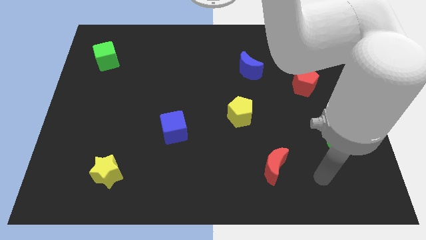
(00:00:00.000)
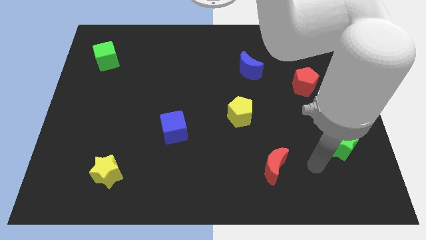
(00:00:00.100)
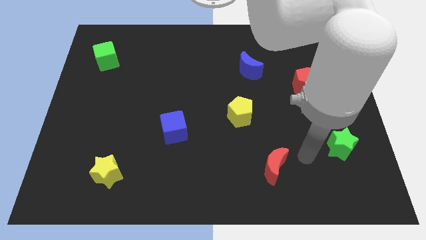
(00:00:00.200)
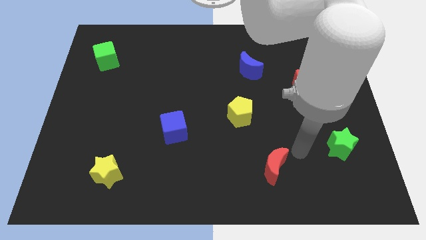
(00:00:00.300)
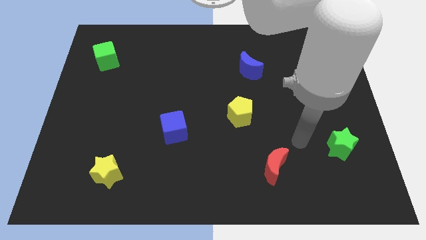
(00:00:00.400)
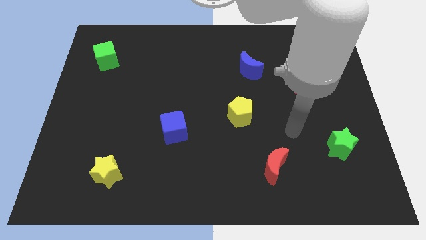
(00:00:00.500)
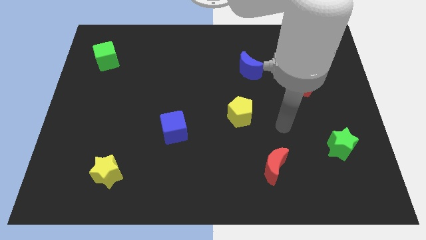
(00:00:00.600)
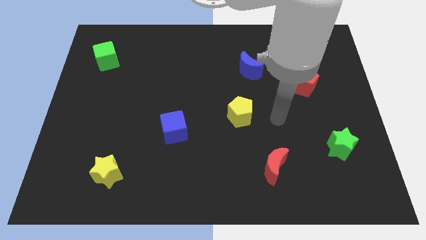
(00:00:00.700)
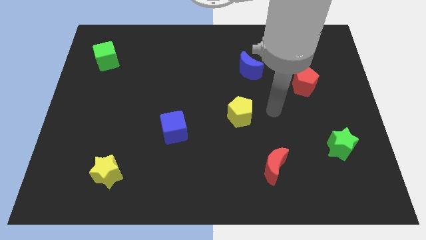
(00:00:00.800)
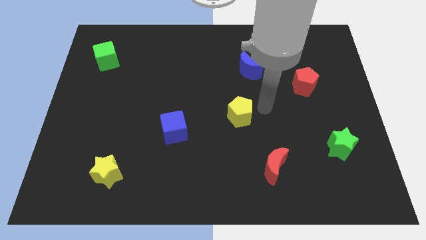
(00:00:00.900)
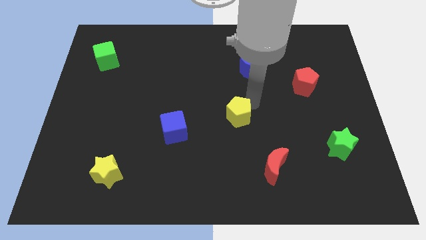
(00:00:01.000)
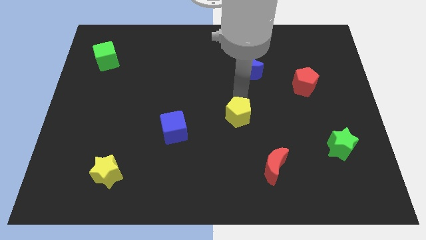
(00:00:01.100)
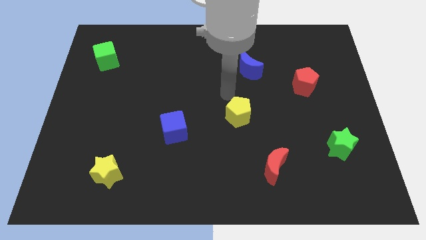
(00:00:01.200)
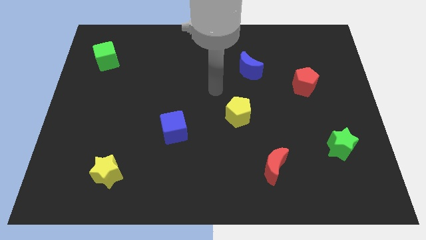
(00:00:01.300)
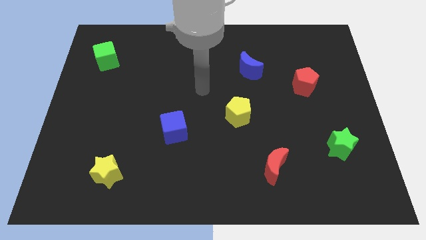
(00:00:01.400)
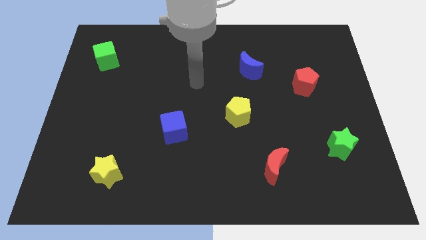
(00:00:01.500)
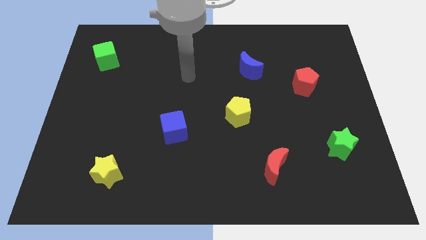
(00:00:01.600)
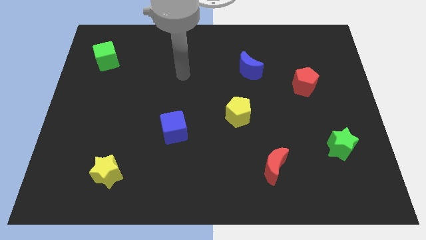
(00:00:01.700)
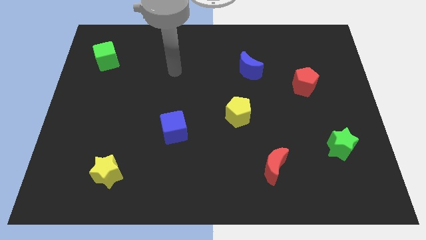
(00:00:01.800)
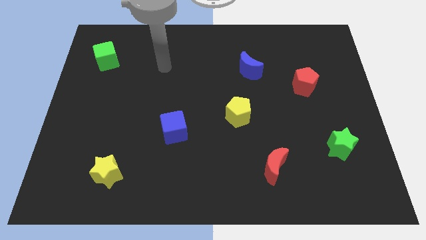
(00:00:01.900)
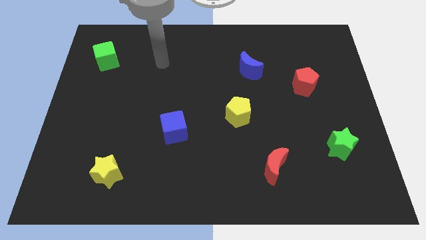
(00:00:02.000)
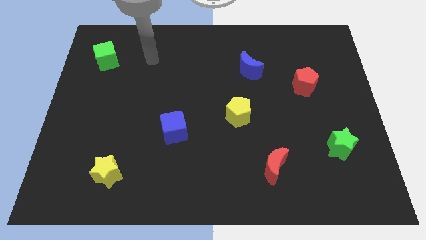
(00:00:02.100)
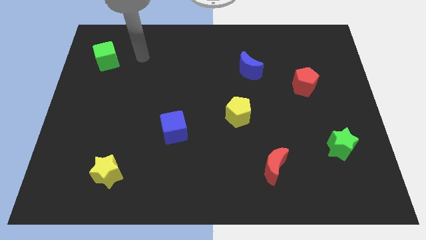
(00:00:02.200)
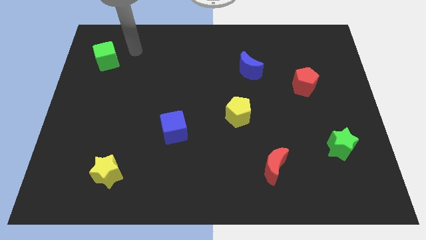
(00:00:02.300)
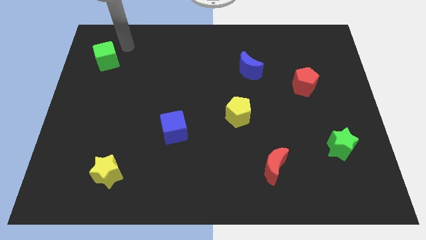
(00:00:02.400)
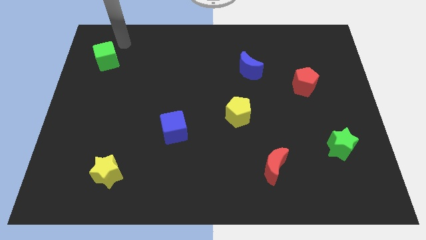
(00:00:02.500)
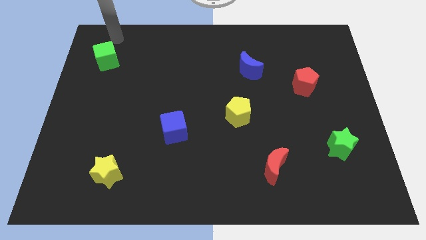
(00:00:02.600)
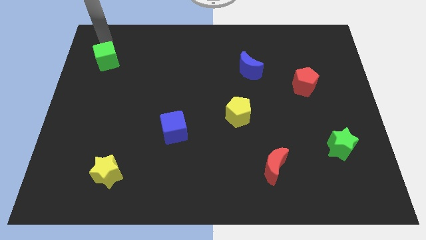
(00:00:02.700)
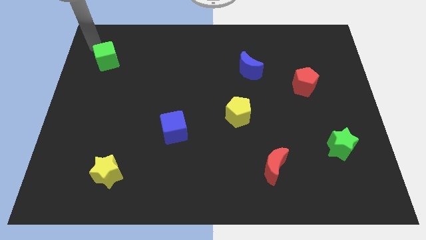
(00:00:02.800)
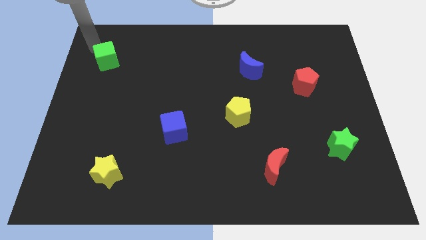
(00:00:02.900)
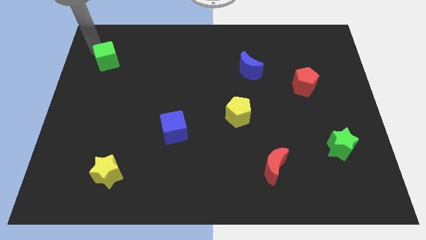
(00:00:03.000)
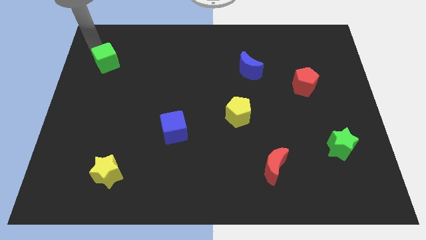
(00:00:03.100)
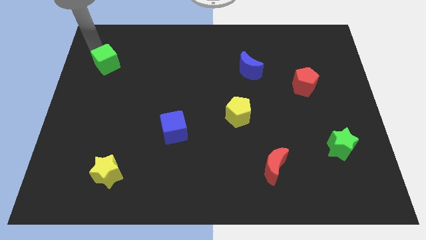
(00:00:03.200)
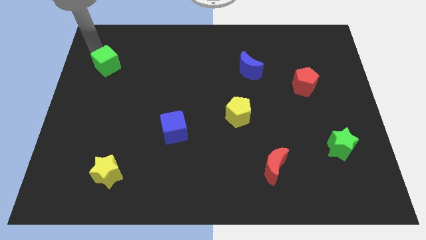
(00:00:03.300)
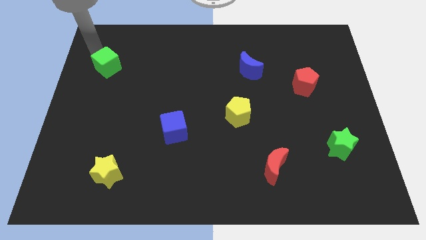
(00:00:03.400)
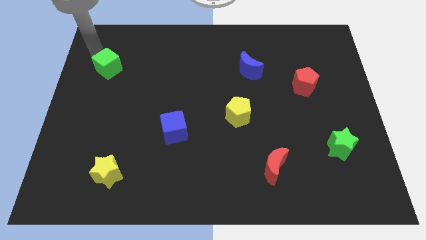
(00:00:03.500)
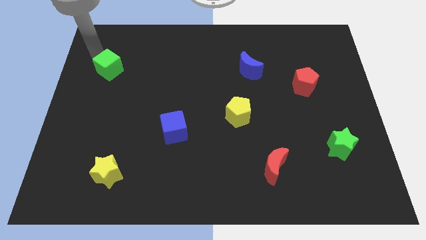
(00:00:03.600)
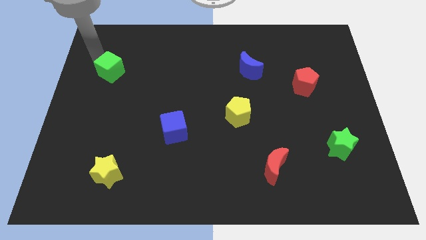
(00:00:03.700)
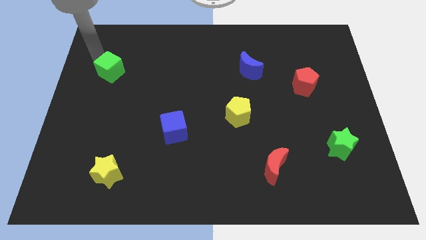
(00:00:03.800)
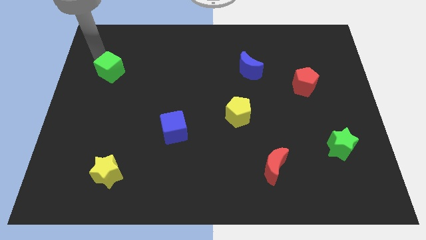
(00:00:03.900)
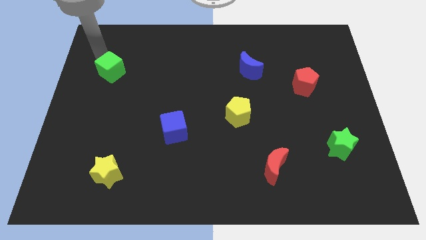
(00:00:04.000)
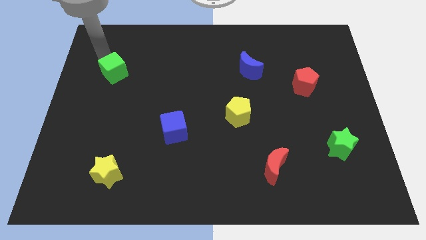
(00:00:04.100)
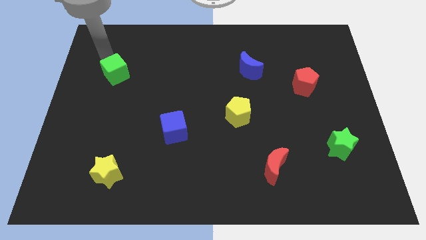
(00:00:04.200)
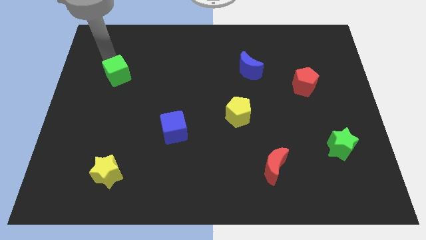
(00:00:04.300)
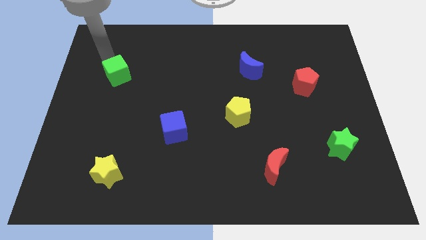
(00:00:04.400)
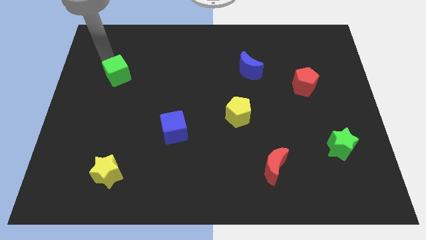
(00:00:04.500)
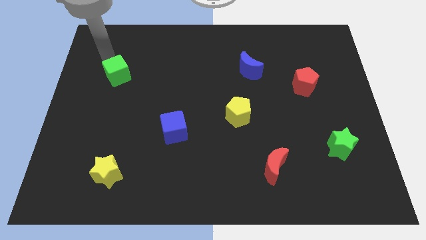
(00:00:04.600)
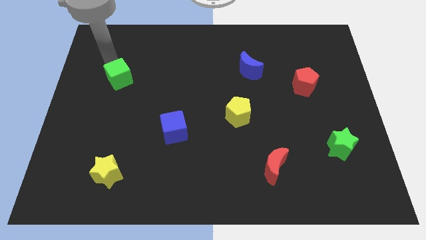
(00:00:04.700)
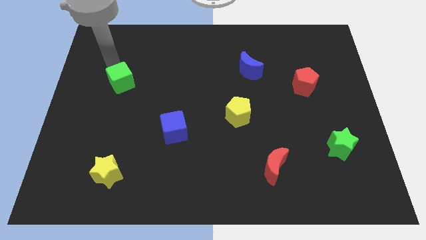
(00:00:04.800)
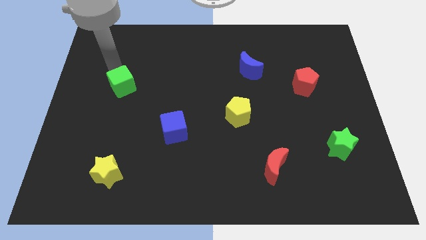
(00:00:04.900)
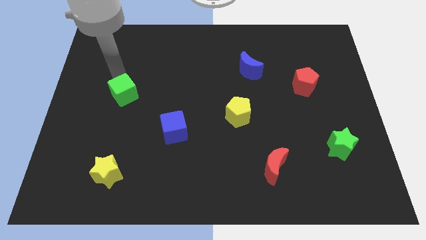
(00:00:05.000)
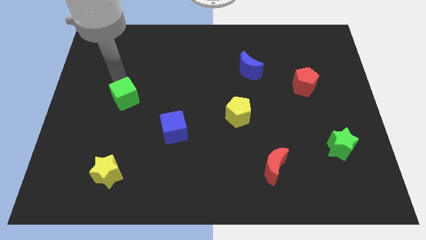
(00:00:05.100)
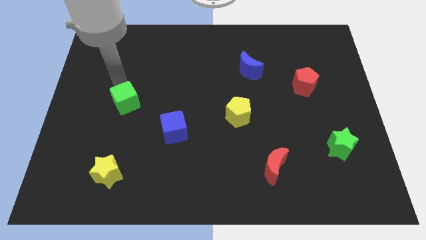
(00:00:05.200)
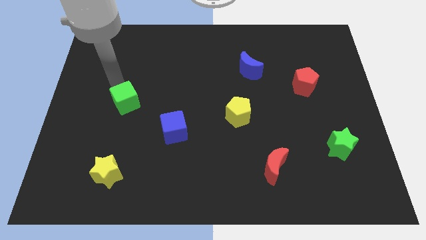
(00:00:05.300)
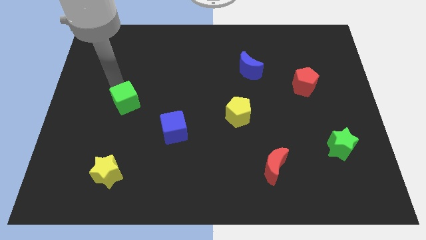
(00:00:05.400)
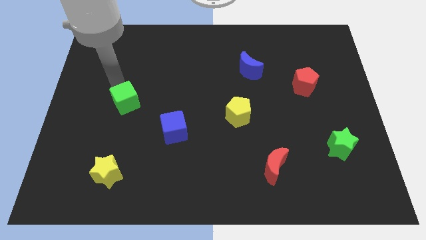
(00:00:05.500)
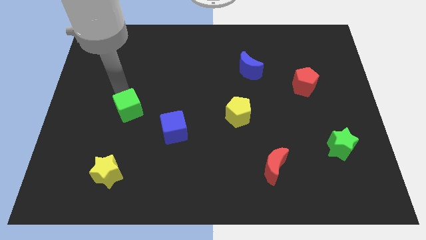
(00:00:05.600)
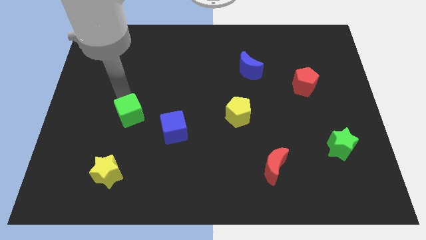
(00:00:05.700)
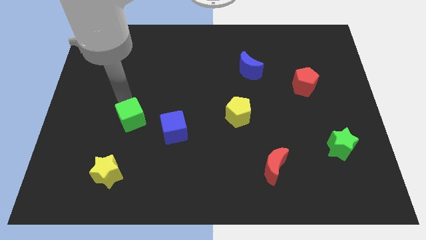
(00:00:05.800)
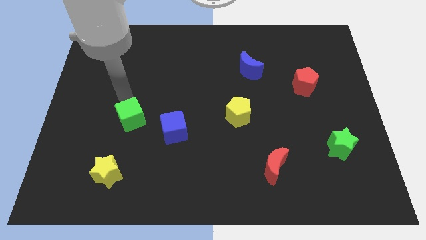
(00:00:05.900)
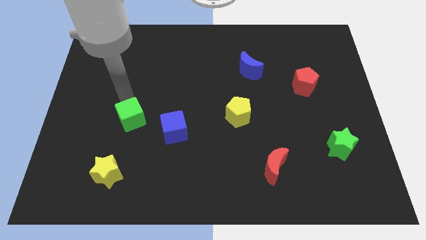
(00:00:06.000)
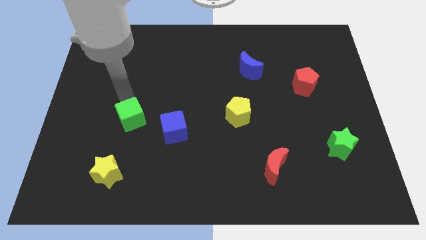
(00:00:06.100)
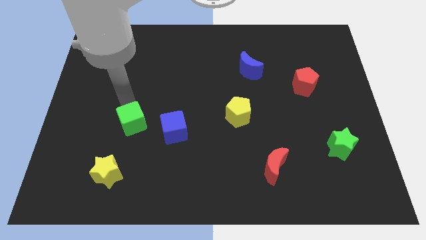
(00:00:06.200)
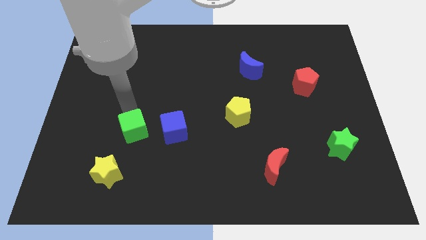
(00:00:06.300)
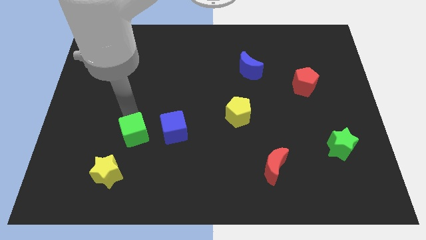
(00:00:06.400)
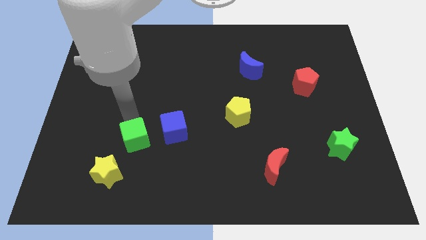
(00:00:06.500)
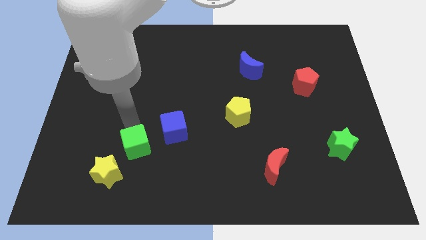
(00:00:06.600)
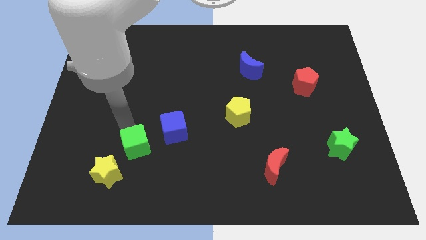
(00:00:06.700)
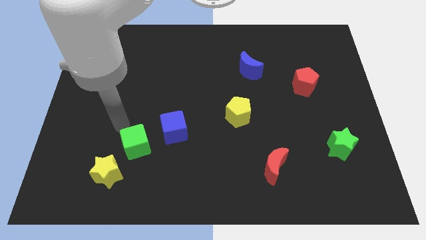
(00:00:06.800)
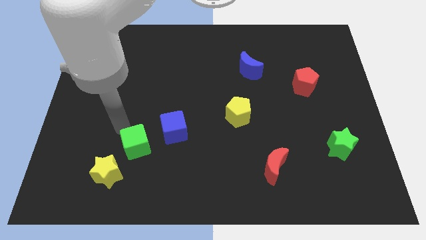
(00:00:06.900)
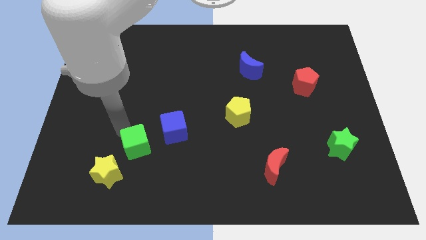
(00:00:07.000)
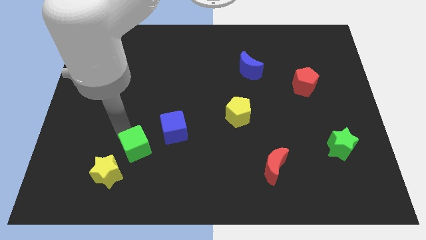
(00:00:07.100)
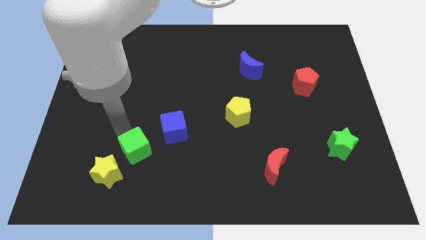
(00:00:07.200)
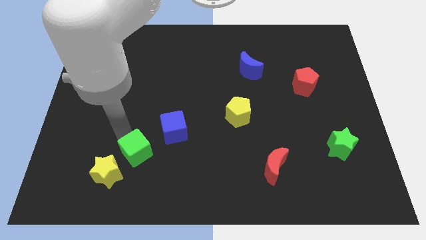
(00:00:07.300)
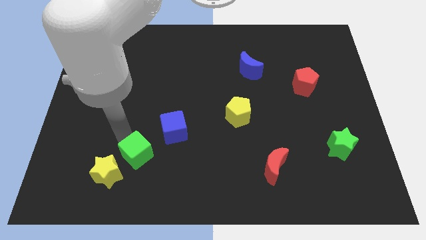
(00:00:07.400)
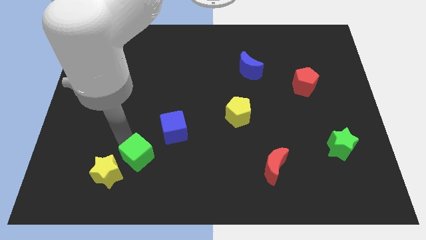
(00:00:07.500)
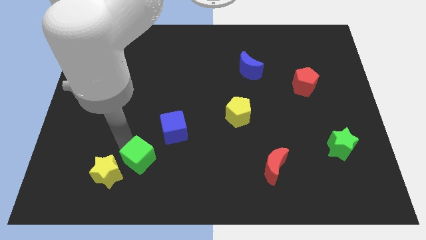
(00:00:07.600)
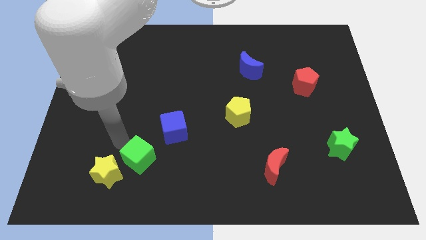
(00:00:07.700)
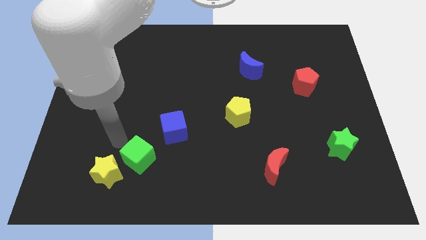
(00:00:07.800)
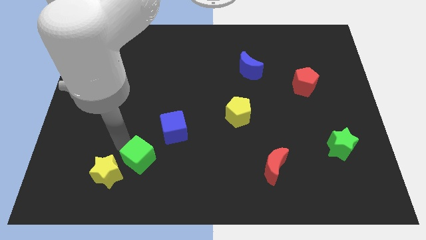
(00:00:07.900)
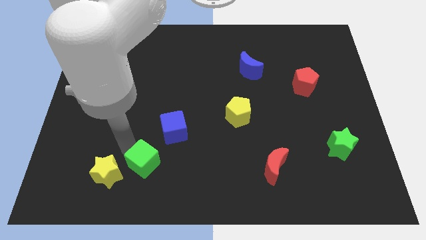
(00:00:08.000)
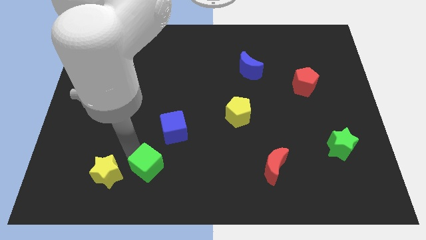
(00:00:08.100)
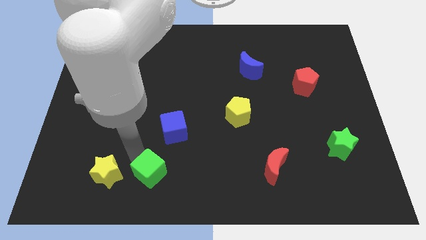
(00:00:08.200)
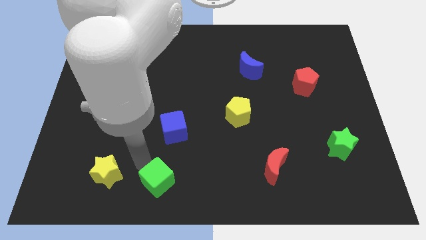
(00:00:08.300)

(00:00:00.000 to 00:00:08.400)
move the green cube to the bottom side
